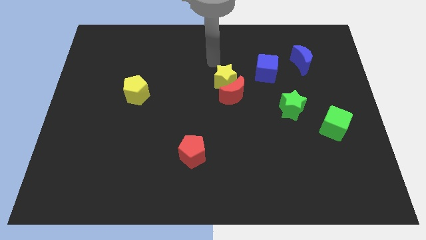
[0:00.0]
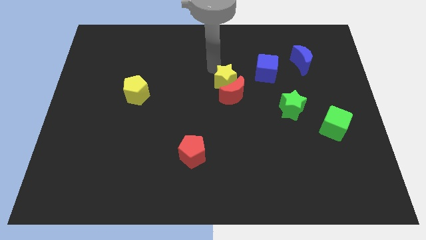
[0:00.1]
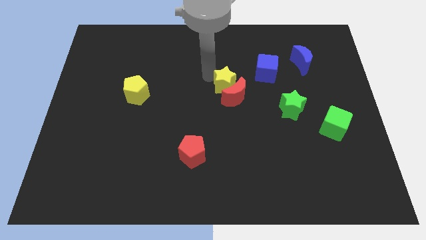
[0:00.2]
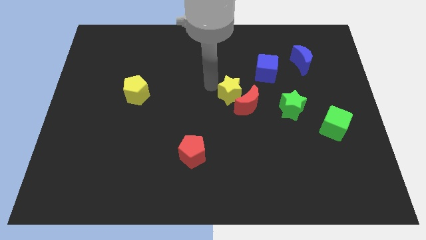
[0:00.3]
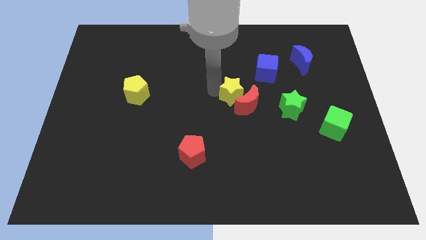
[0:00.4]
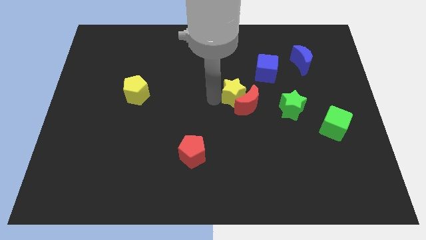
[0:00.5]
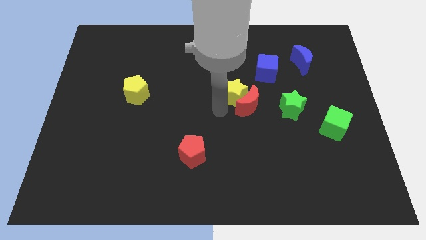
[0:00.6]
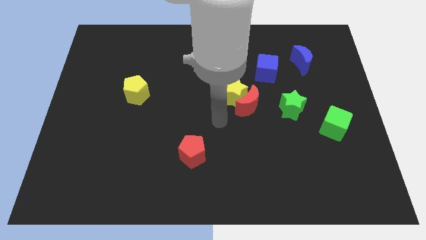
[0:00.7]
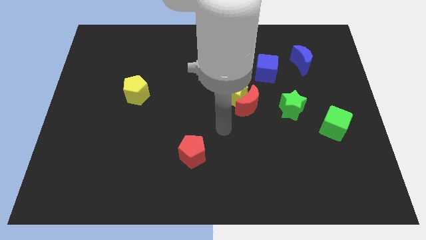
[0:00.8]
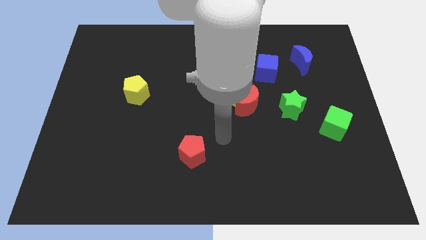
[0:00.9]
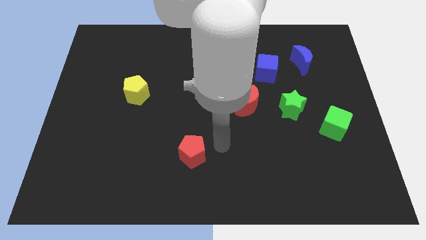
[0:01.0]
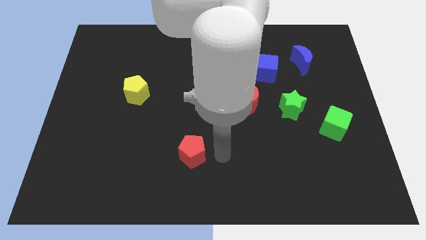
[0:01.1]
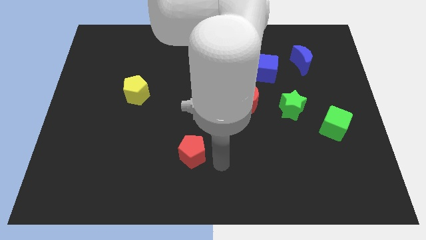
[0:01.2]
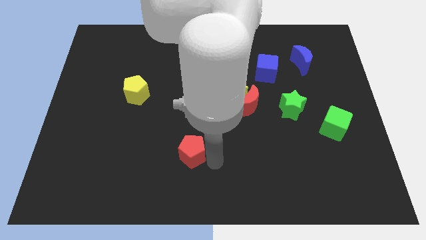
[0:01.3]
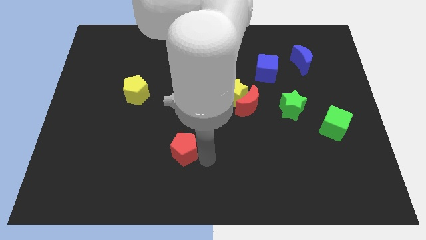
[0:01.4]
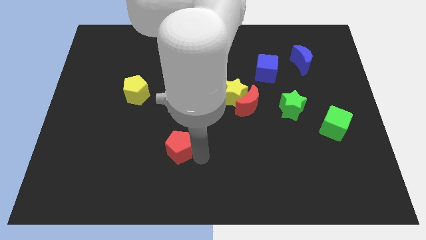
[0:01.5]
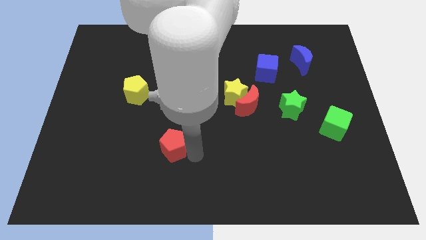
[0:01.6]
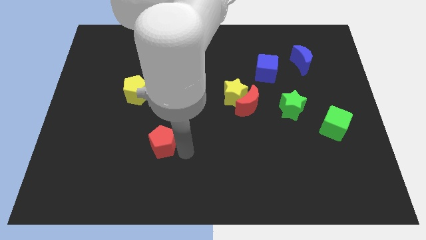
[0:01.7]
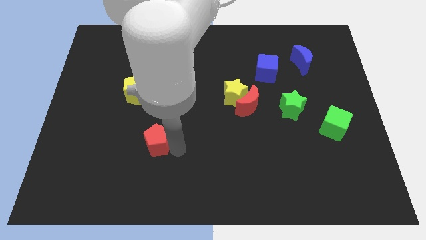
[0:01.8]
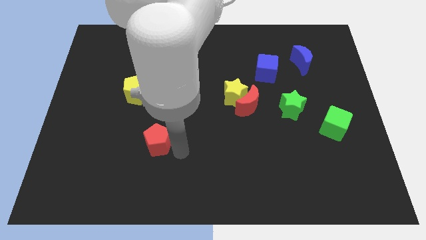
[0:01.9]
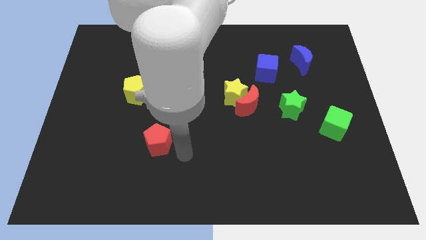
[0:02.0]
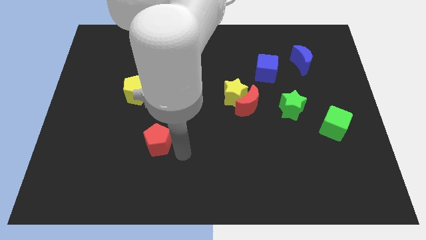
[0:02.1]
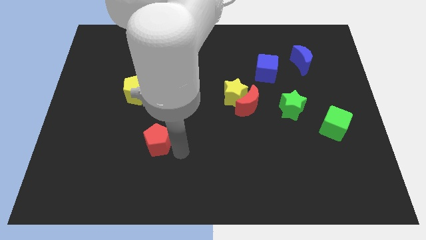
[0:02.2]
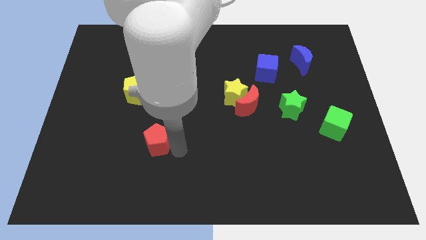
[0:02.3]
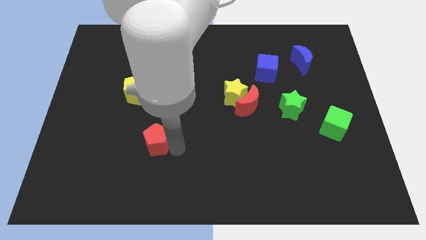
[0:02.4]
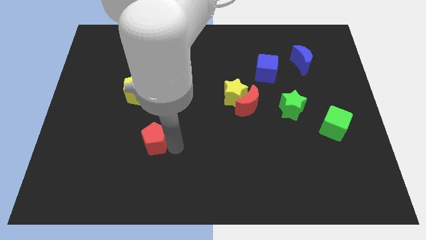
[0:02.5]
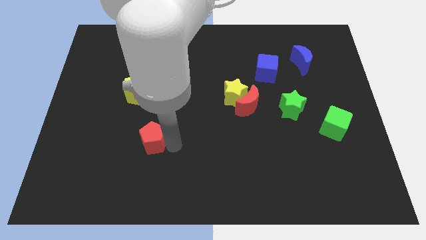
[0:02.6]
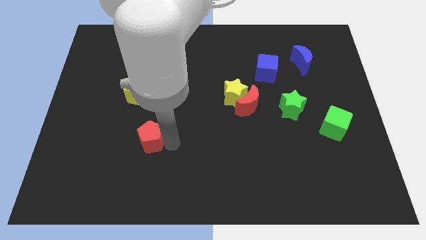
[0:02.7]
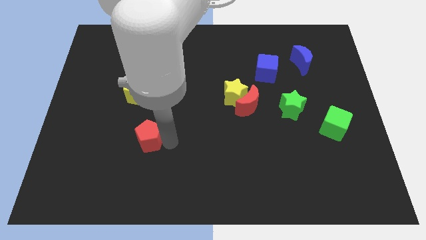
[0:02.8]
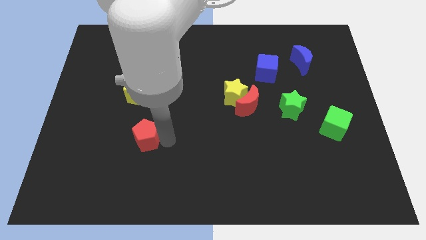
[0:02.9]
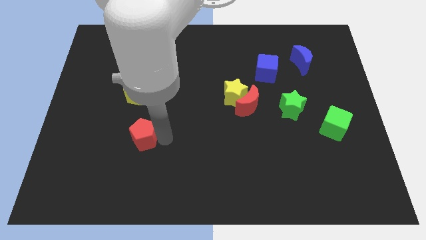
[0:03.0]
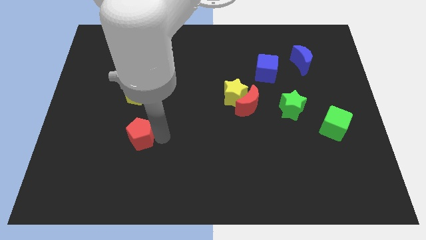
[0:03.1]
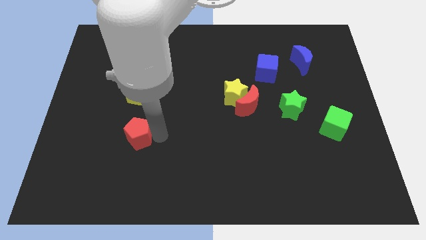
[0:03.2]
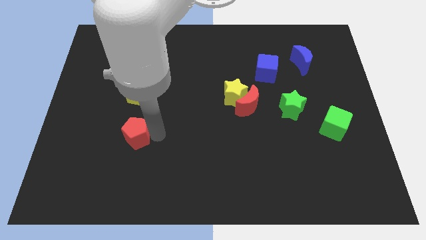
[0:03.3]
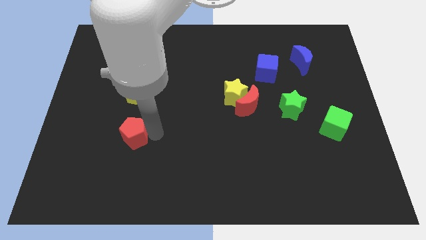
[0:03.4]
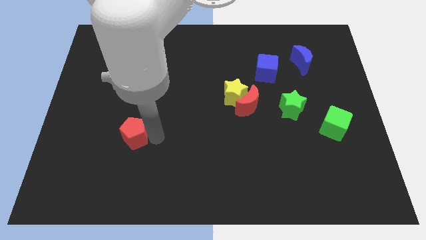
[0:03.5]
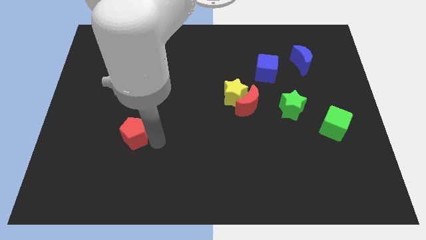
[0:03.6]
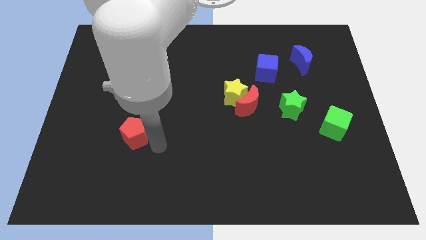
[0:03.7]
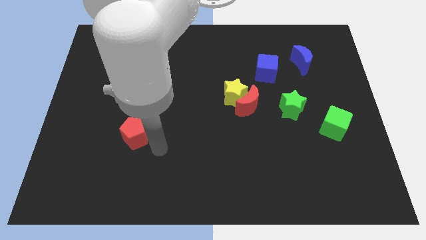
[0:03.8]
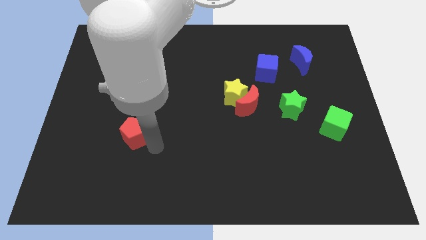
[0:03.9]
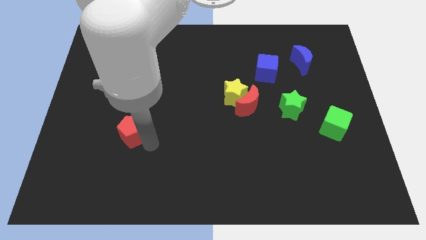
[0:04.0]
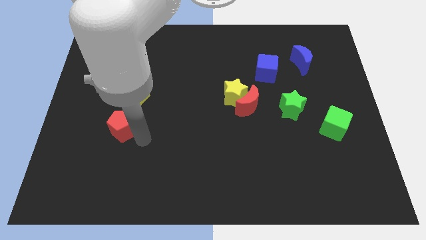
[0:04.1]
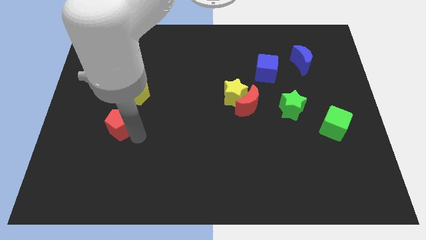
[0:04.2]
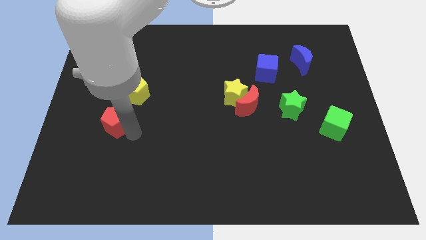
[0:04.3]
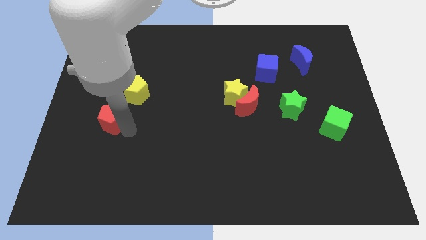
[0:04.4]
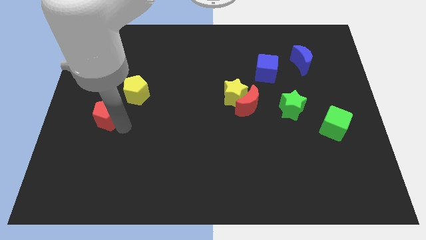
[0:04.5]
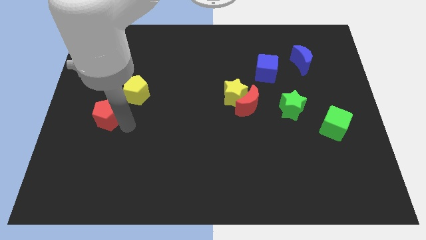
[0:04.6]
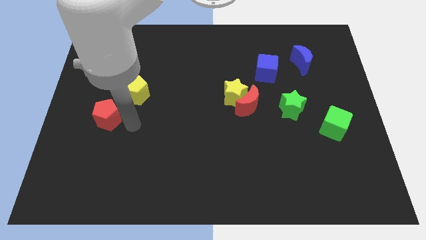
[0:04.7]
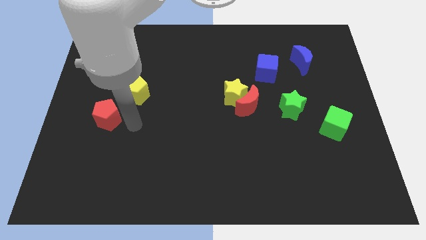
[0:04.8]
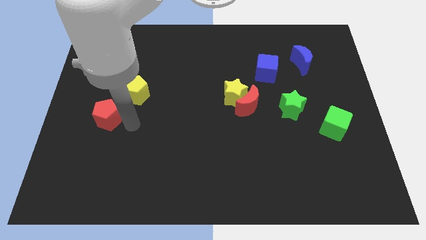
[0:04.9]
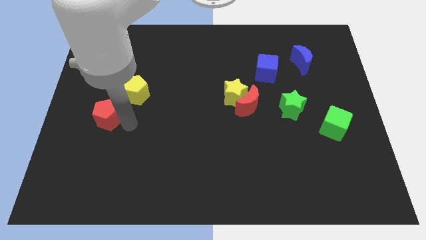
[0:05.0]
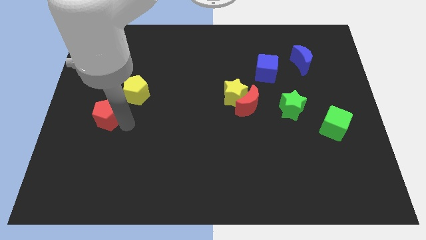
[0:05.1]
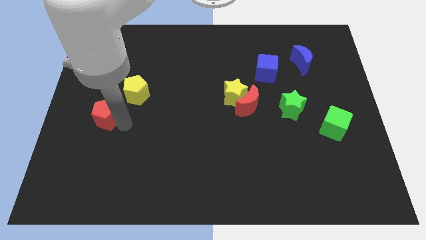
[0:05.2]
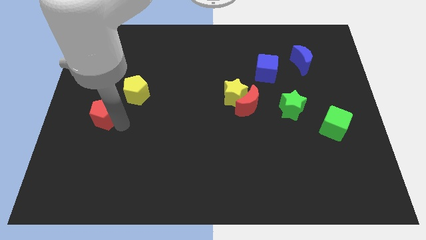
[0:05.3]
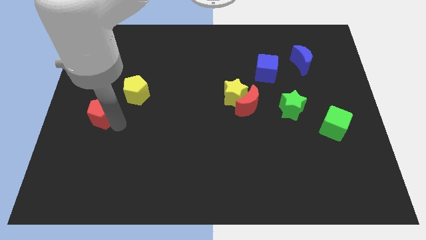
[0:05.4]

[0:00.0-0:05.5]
push the red pentagon to the center left

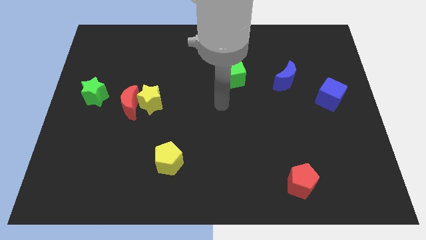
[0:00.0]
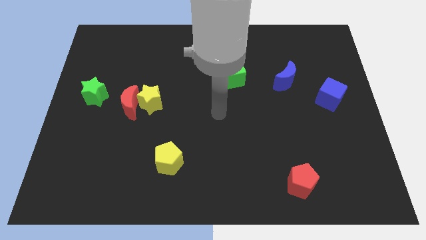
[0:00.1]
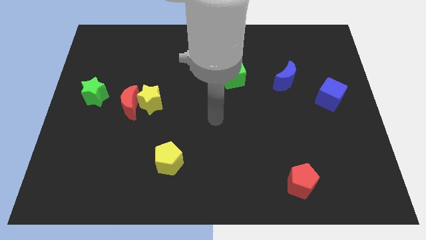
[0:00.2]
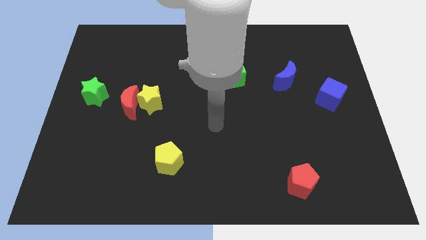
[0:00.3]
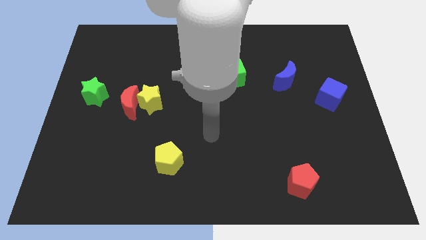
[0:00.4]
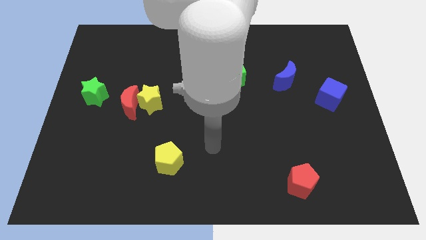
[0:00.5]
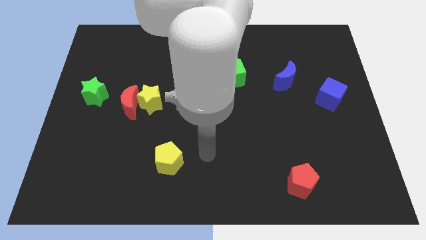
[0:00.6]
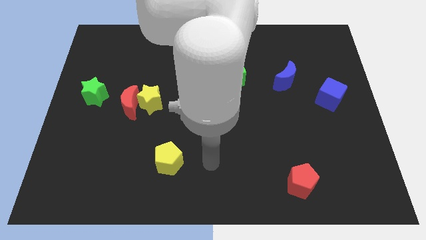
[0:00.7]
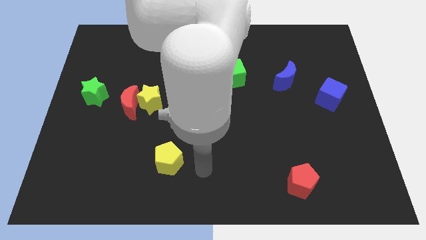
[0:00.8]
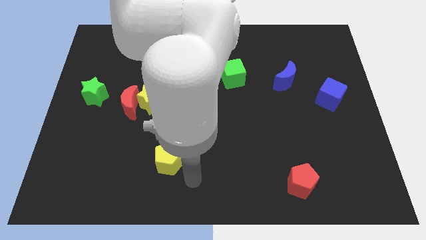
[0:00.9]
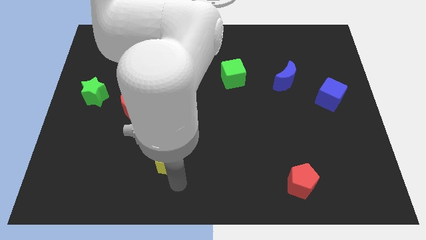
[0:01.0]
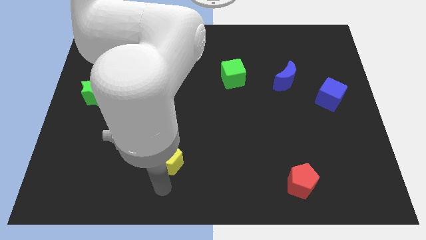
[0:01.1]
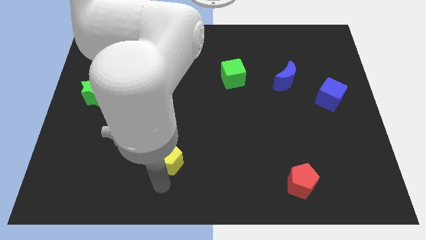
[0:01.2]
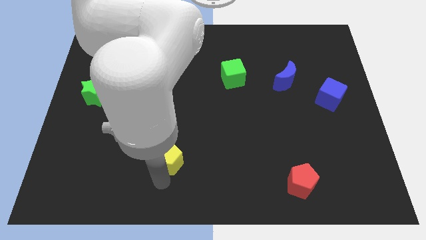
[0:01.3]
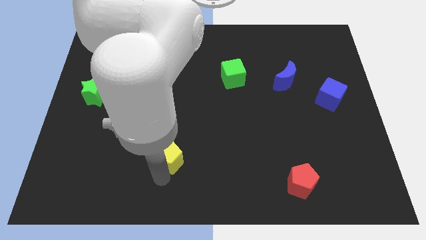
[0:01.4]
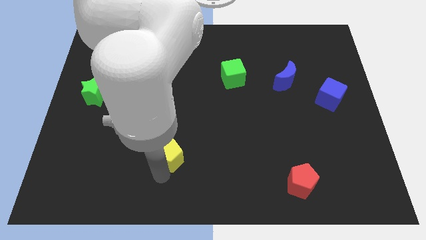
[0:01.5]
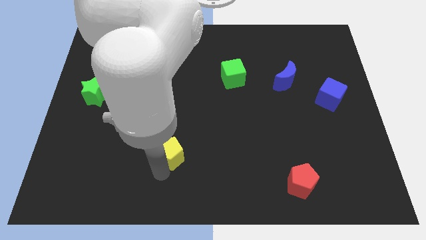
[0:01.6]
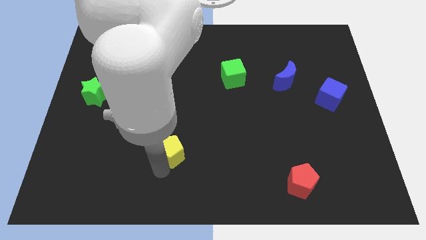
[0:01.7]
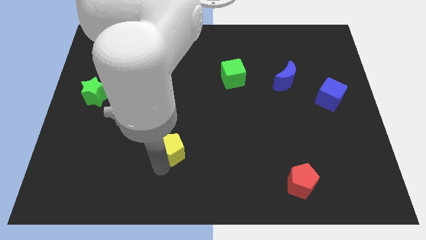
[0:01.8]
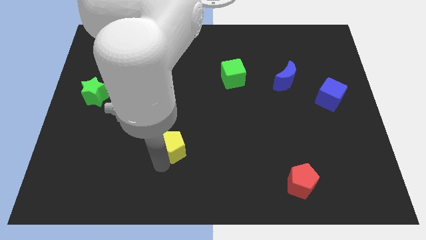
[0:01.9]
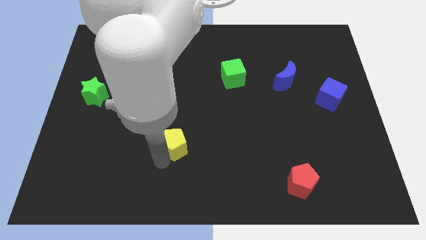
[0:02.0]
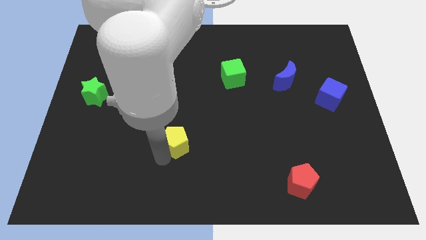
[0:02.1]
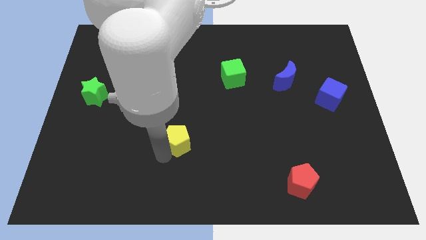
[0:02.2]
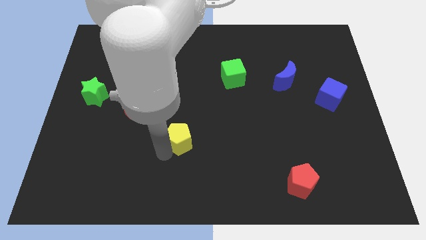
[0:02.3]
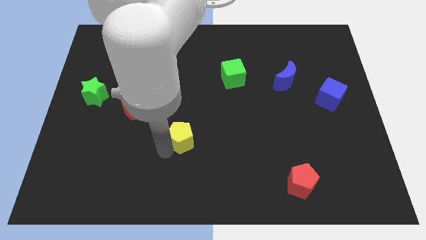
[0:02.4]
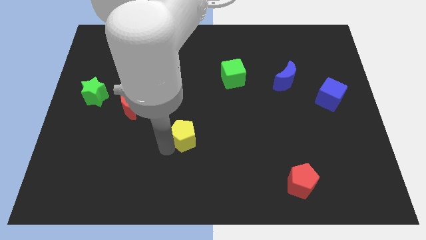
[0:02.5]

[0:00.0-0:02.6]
put the yellow pentagon to the middle
